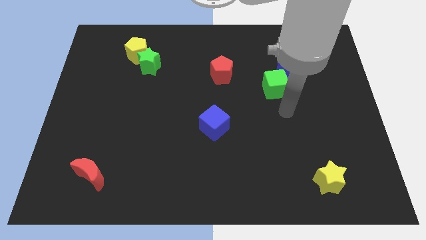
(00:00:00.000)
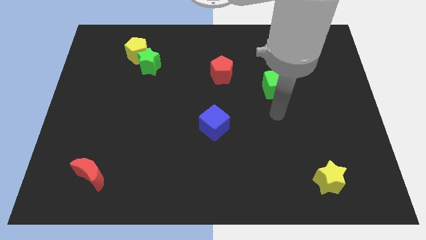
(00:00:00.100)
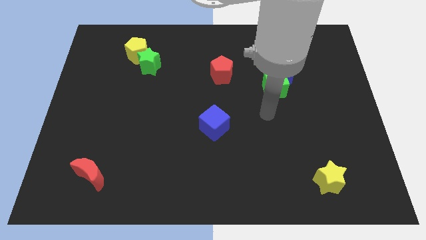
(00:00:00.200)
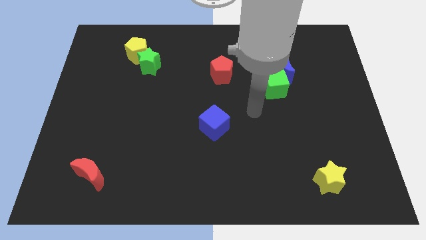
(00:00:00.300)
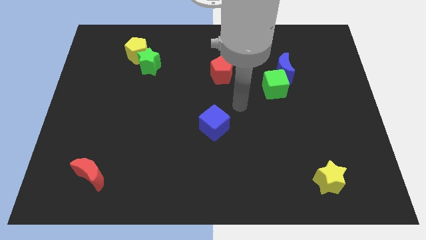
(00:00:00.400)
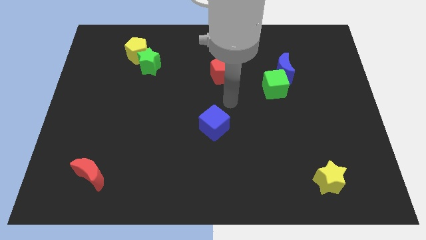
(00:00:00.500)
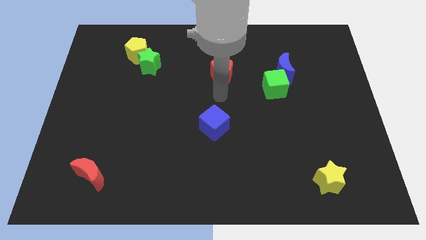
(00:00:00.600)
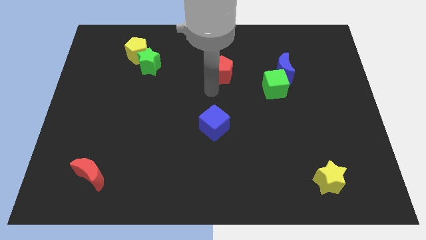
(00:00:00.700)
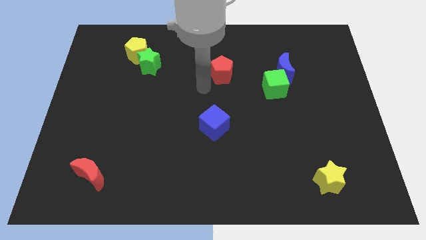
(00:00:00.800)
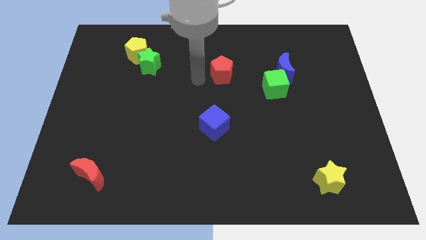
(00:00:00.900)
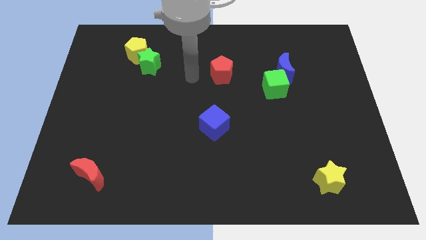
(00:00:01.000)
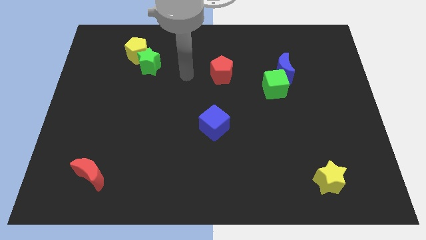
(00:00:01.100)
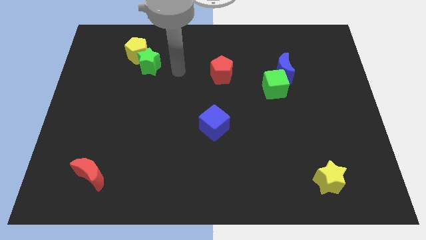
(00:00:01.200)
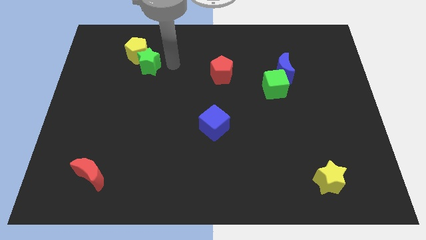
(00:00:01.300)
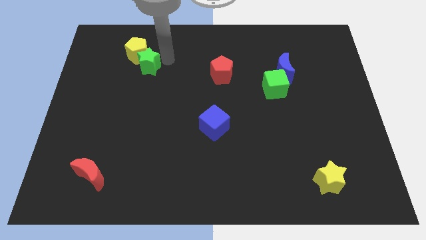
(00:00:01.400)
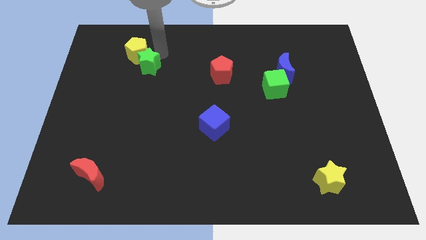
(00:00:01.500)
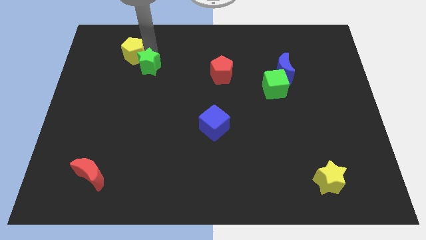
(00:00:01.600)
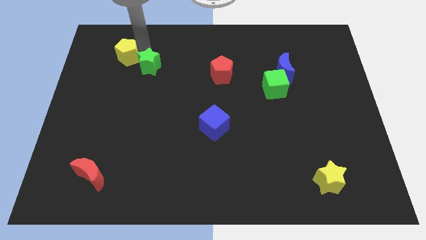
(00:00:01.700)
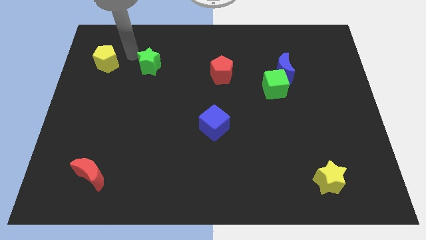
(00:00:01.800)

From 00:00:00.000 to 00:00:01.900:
move the green star away from the yellow pentagon

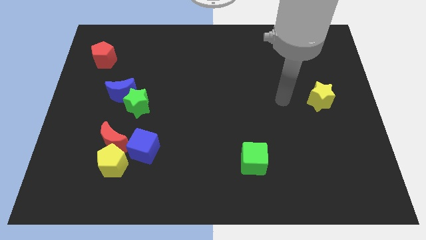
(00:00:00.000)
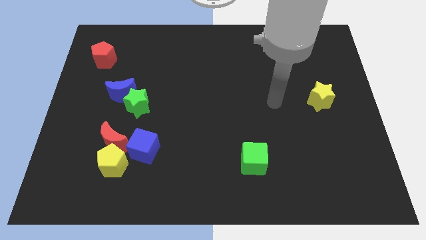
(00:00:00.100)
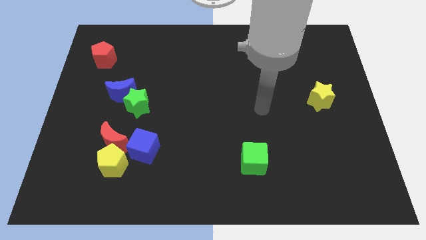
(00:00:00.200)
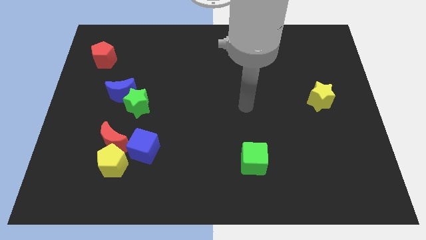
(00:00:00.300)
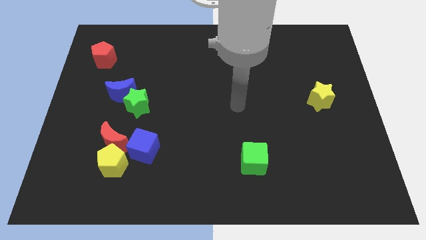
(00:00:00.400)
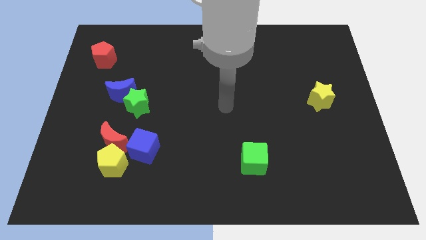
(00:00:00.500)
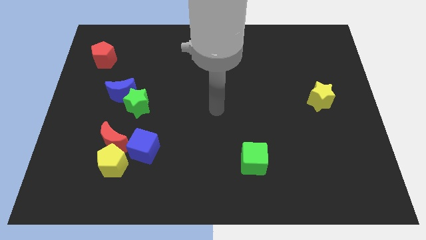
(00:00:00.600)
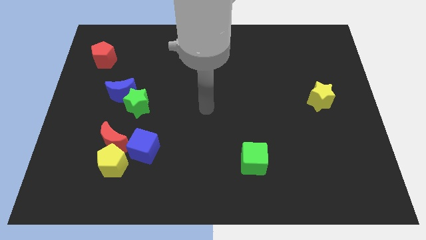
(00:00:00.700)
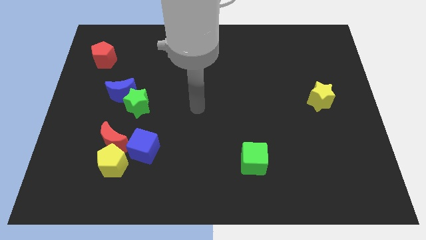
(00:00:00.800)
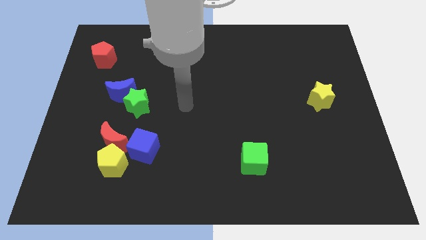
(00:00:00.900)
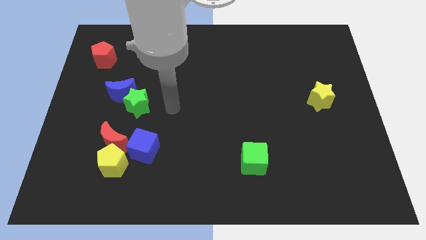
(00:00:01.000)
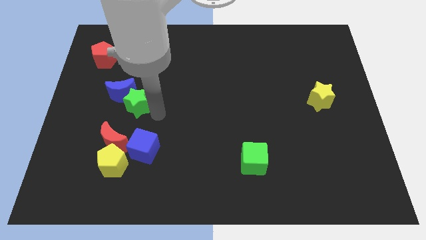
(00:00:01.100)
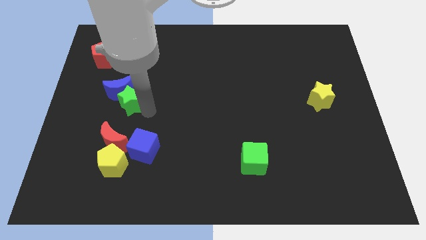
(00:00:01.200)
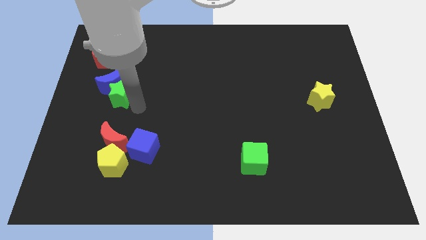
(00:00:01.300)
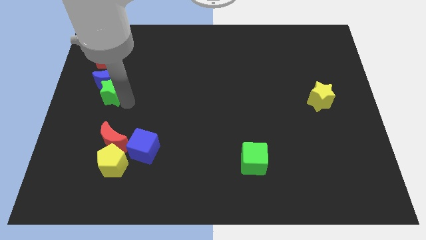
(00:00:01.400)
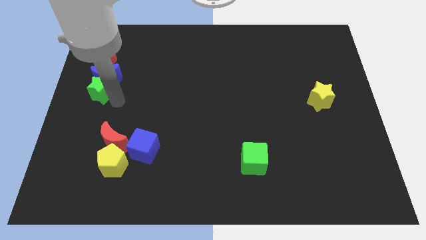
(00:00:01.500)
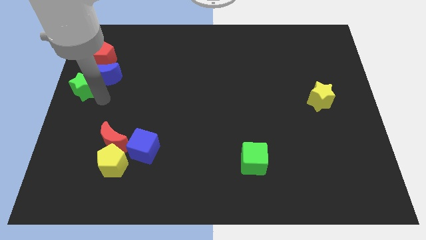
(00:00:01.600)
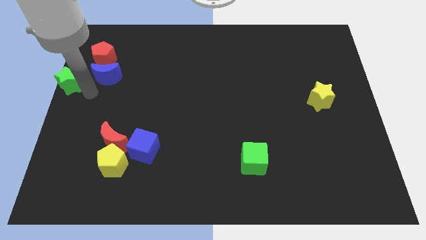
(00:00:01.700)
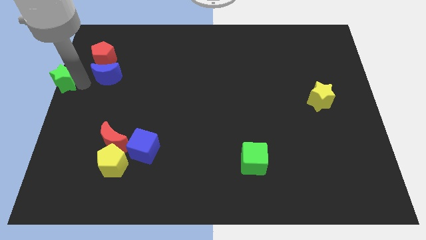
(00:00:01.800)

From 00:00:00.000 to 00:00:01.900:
separate the blue moon from the green star

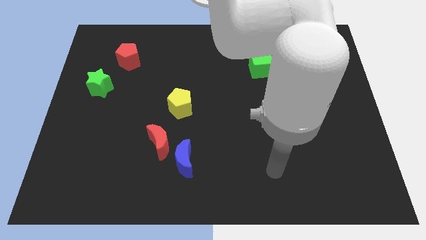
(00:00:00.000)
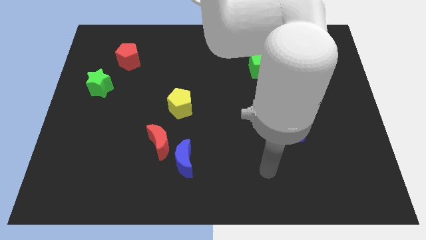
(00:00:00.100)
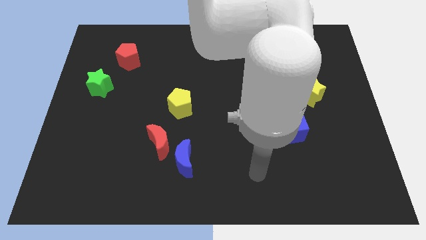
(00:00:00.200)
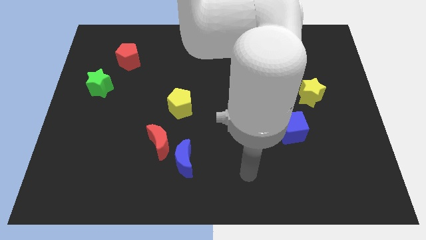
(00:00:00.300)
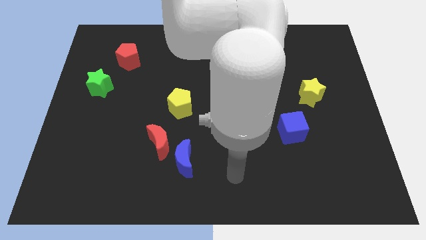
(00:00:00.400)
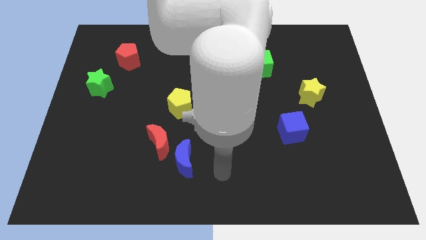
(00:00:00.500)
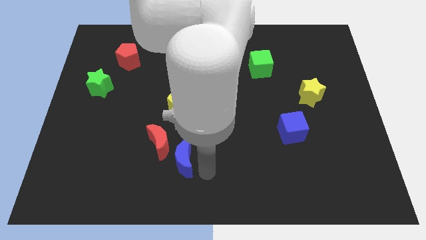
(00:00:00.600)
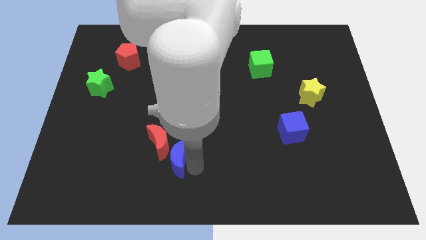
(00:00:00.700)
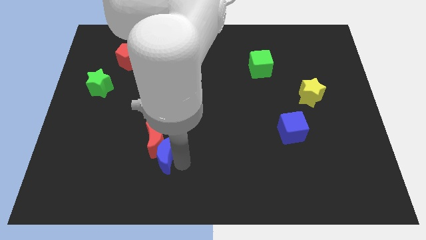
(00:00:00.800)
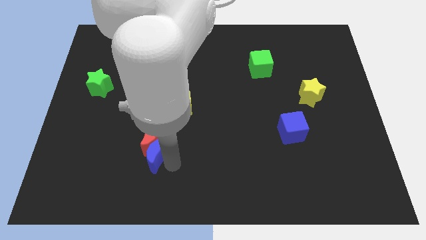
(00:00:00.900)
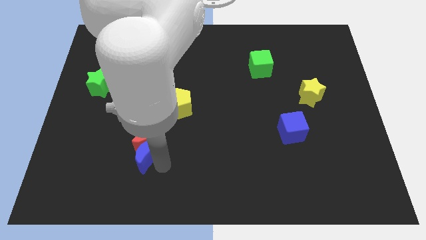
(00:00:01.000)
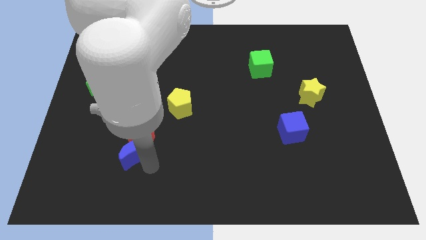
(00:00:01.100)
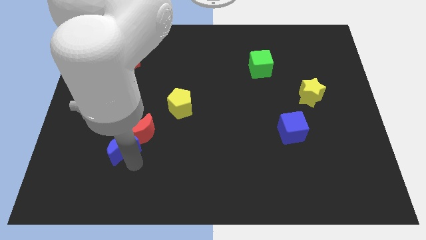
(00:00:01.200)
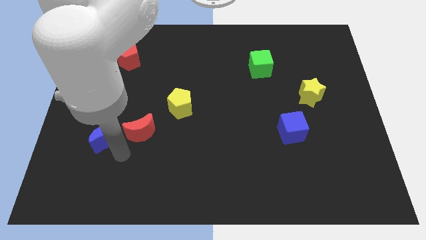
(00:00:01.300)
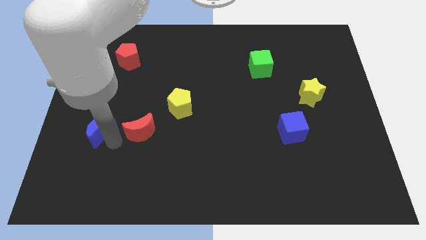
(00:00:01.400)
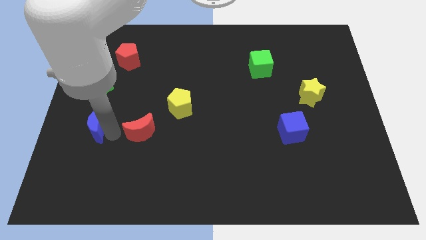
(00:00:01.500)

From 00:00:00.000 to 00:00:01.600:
separate the red moon from the blue moon

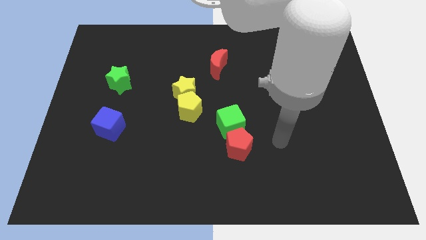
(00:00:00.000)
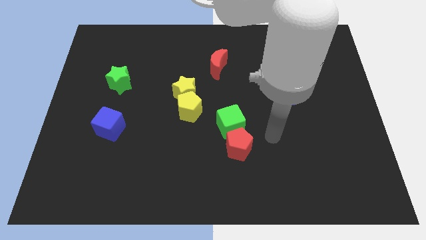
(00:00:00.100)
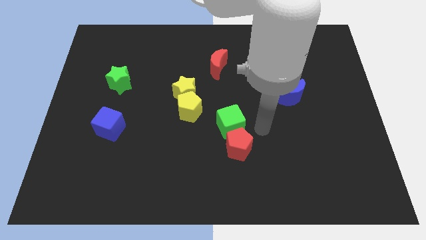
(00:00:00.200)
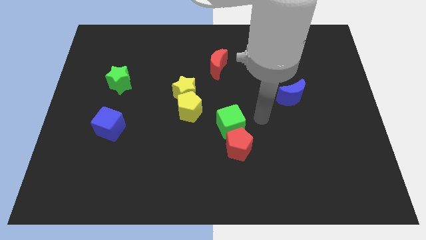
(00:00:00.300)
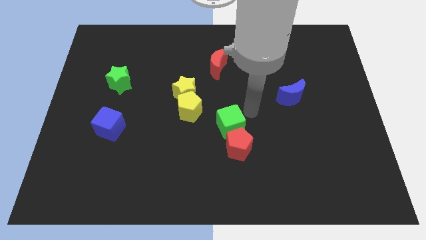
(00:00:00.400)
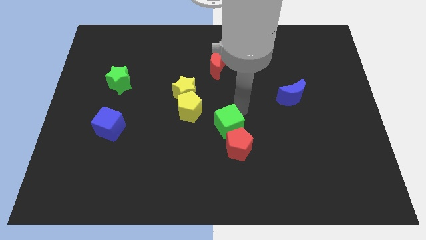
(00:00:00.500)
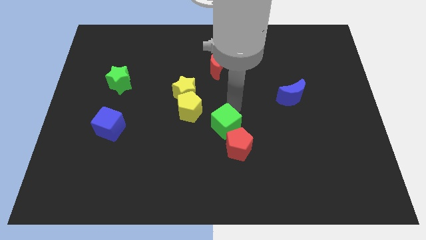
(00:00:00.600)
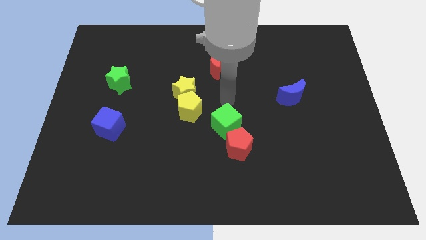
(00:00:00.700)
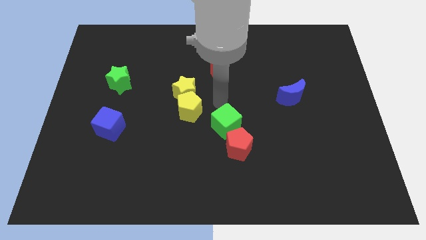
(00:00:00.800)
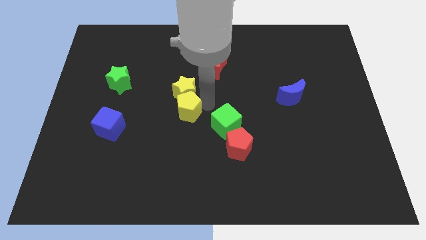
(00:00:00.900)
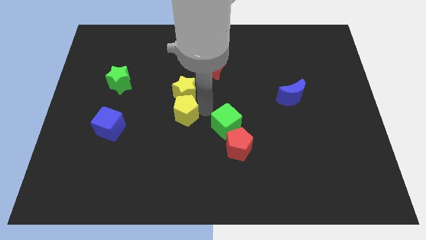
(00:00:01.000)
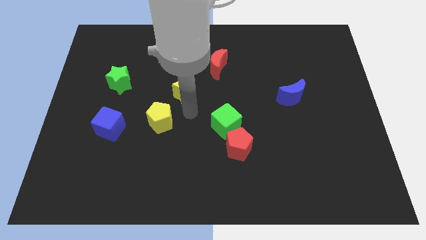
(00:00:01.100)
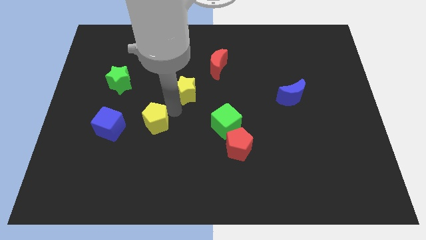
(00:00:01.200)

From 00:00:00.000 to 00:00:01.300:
pull the yellow star apart from the yellow pentagon

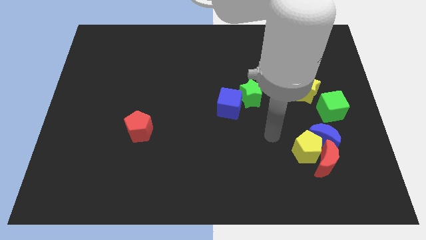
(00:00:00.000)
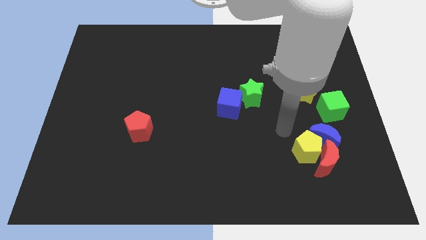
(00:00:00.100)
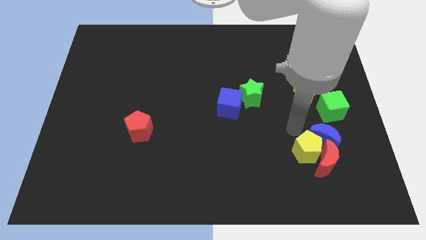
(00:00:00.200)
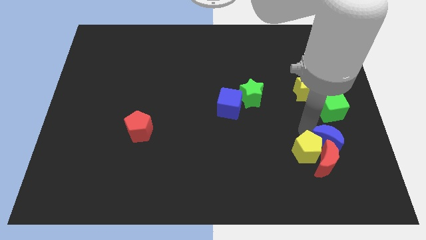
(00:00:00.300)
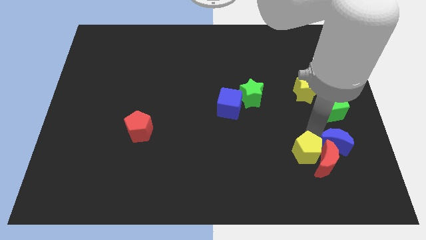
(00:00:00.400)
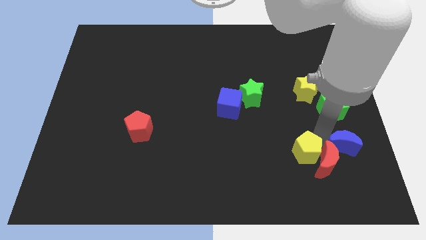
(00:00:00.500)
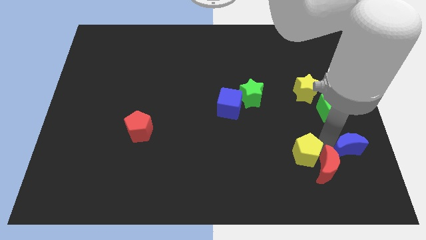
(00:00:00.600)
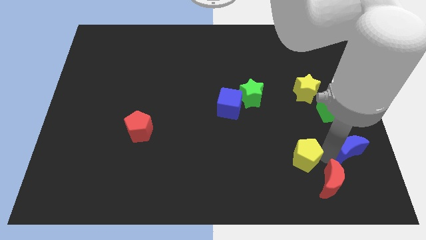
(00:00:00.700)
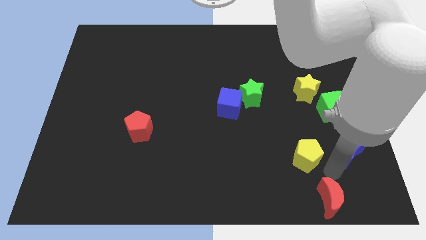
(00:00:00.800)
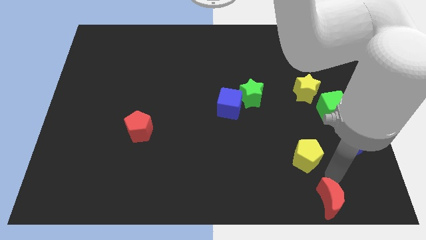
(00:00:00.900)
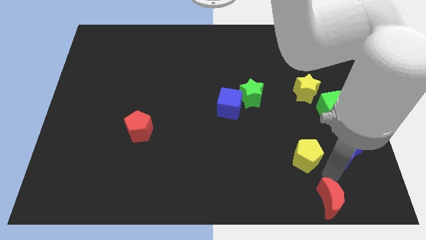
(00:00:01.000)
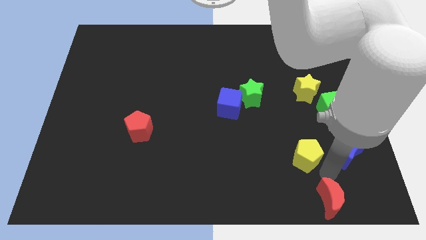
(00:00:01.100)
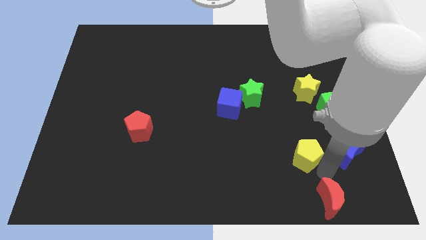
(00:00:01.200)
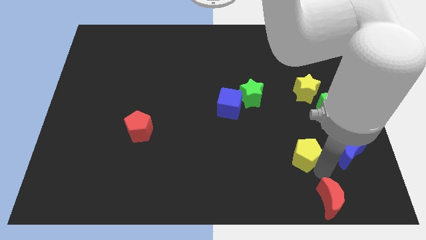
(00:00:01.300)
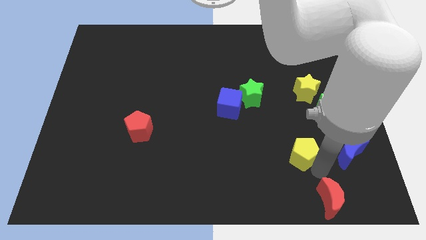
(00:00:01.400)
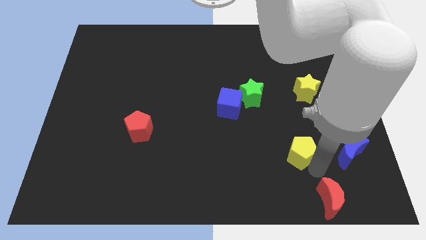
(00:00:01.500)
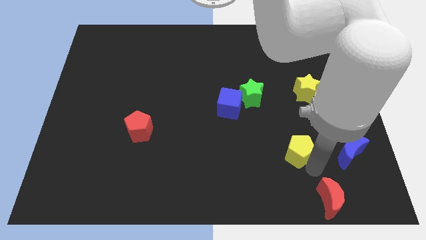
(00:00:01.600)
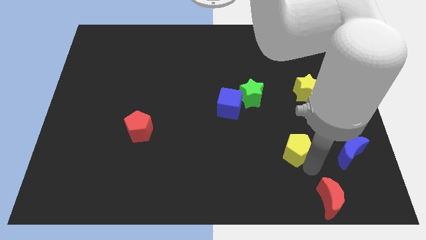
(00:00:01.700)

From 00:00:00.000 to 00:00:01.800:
move the yellow pentagon away from the red moon and blue moon

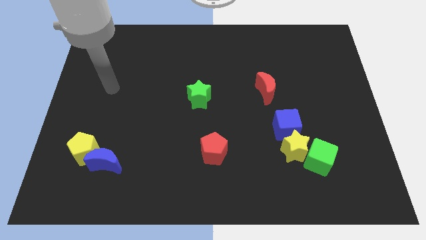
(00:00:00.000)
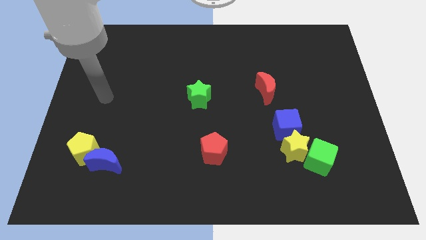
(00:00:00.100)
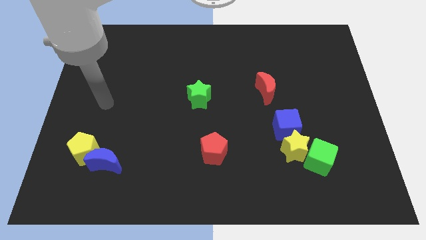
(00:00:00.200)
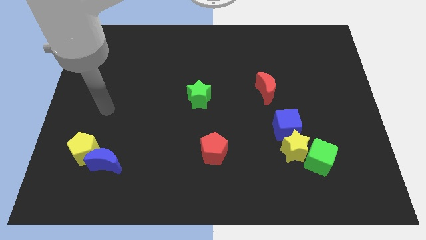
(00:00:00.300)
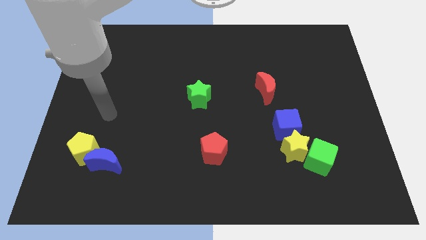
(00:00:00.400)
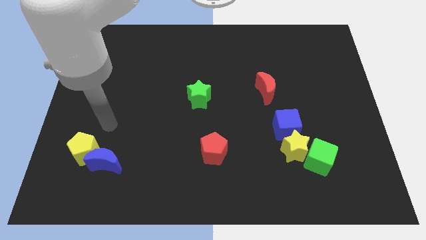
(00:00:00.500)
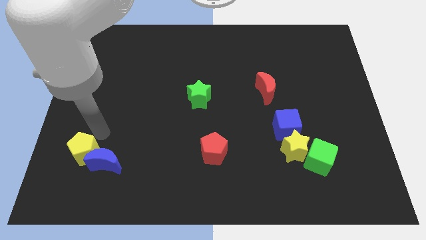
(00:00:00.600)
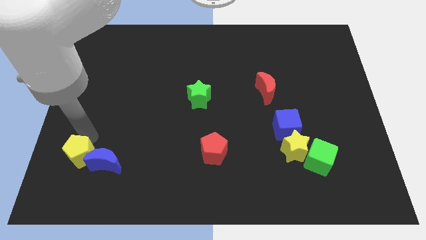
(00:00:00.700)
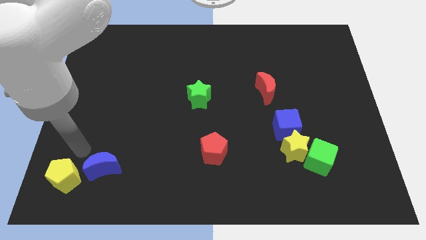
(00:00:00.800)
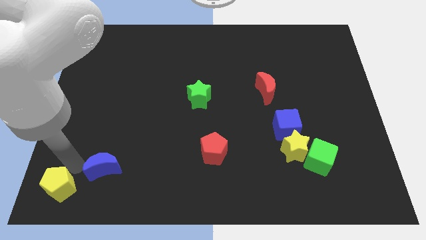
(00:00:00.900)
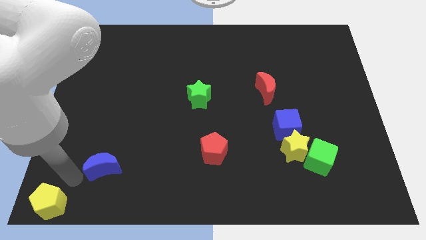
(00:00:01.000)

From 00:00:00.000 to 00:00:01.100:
separate the blue moon from the yellow pentagon
